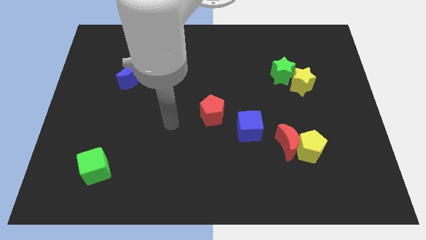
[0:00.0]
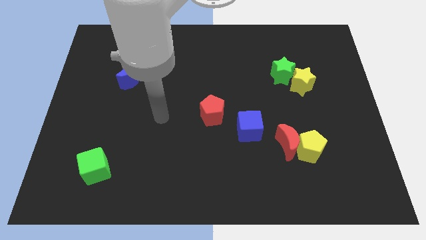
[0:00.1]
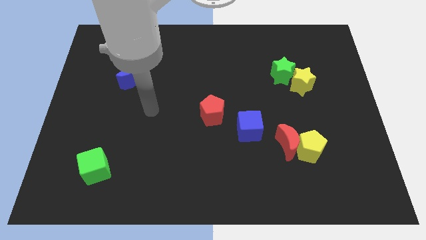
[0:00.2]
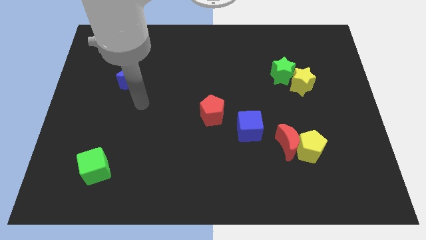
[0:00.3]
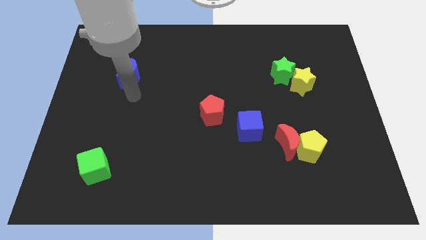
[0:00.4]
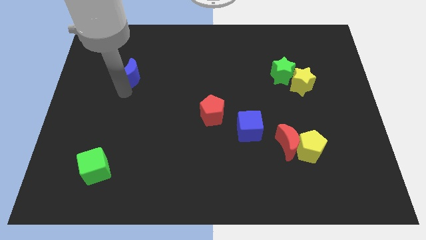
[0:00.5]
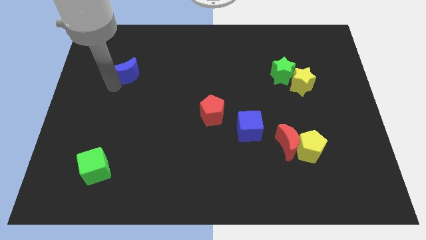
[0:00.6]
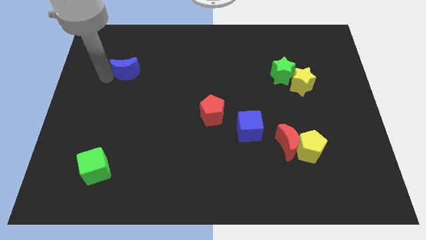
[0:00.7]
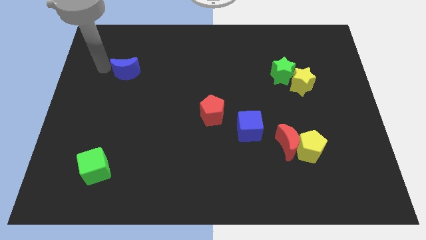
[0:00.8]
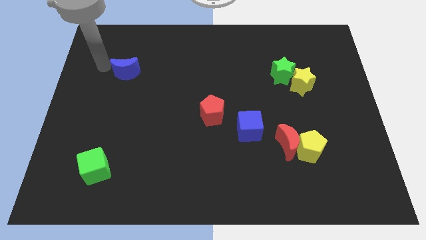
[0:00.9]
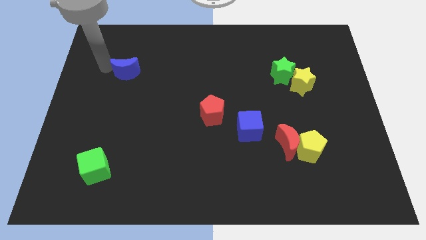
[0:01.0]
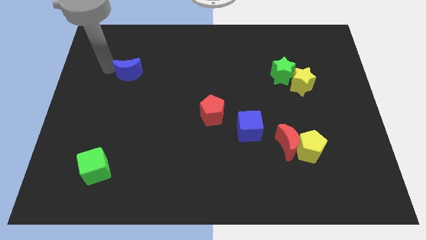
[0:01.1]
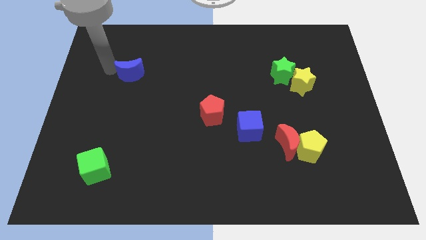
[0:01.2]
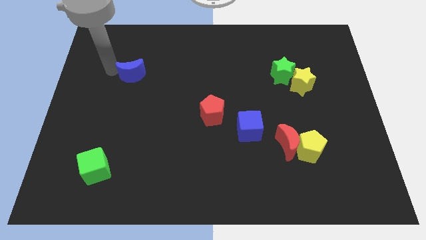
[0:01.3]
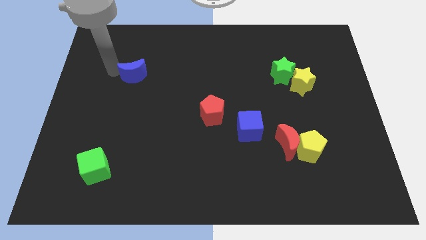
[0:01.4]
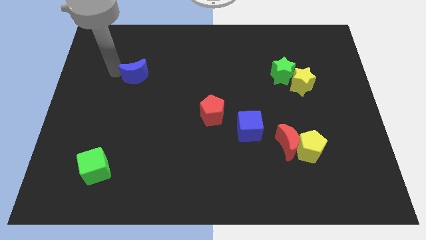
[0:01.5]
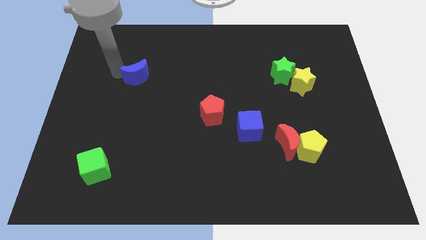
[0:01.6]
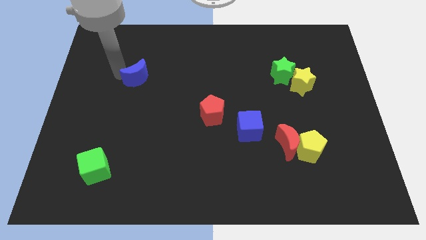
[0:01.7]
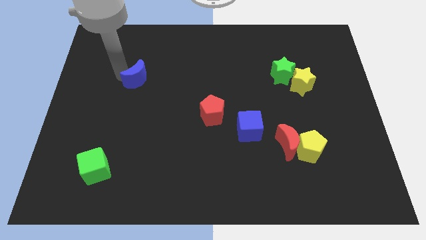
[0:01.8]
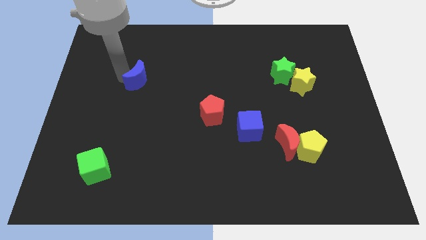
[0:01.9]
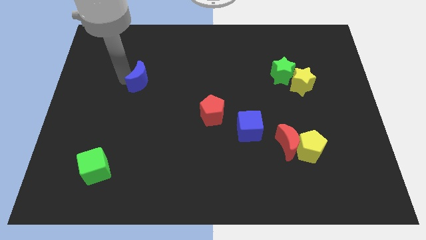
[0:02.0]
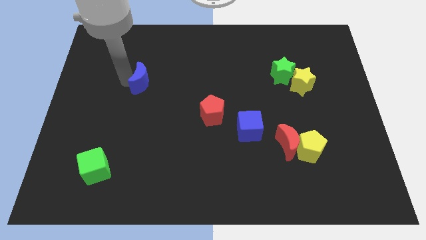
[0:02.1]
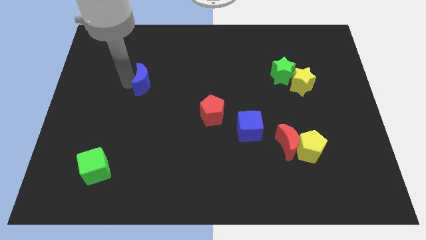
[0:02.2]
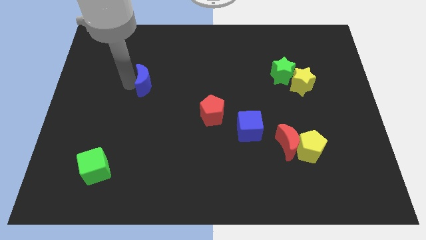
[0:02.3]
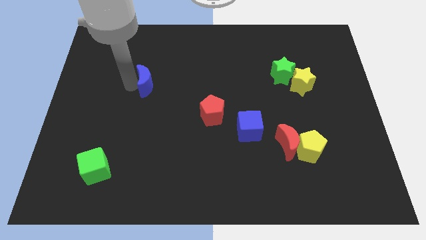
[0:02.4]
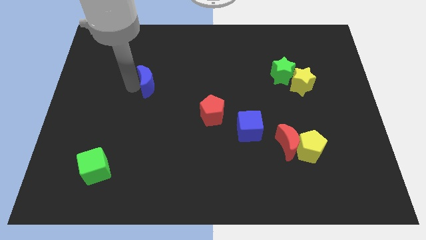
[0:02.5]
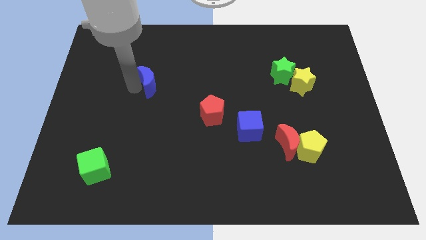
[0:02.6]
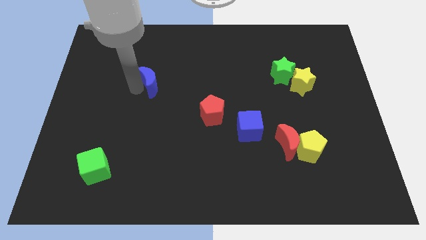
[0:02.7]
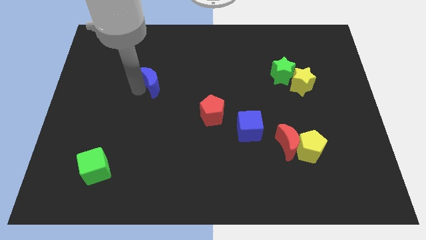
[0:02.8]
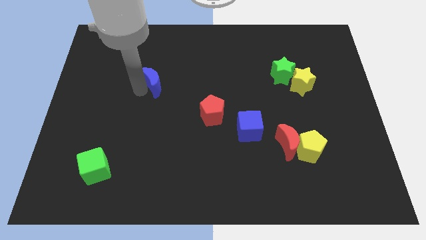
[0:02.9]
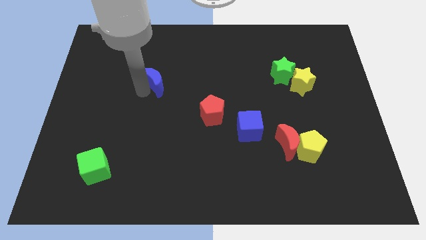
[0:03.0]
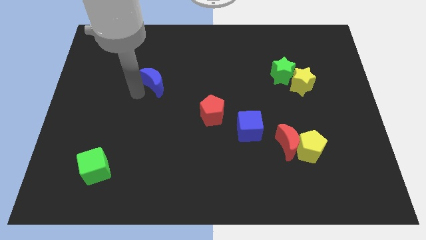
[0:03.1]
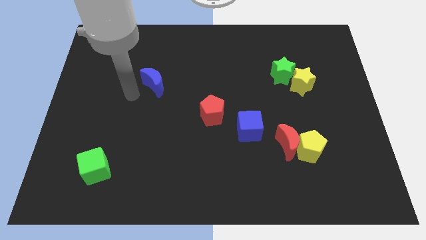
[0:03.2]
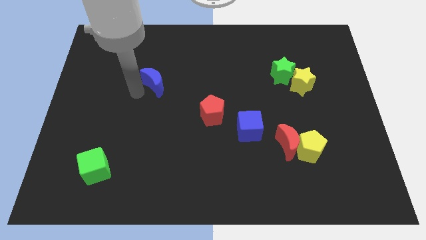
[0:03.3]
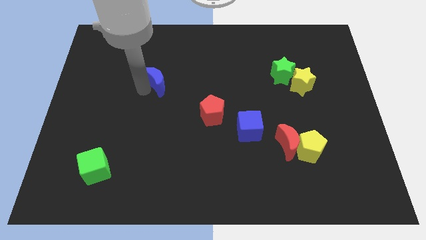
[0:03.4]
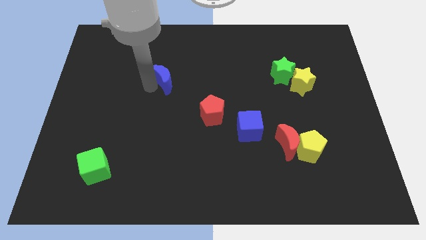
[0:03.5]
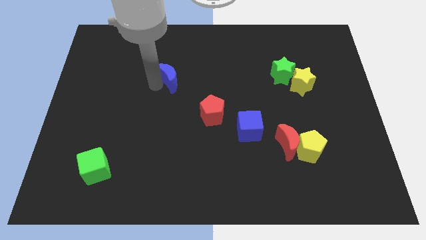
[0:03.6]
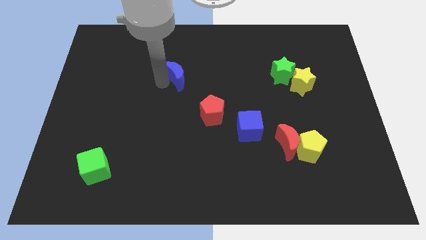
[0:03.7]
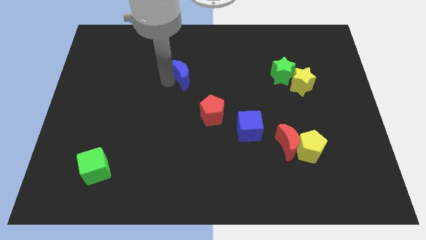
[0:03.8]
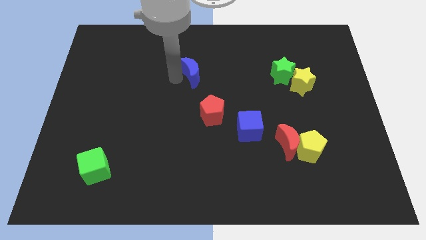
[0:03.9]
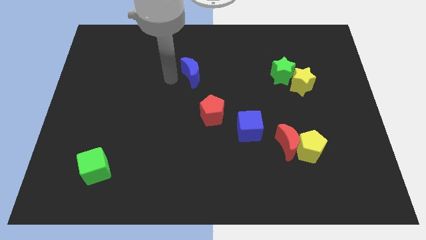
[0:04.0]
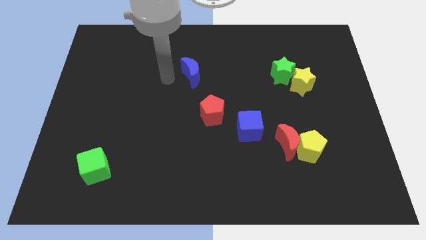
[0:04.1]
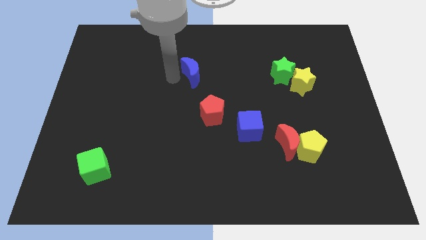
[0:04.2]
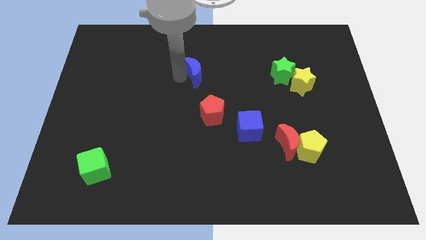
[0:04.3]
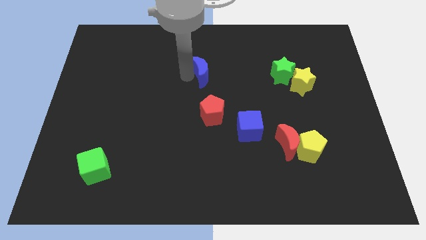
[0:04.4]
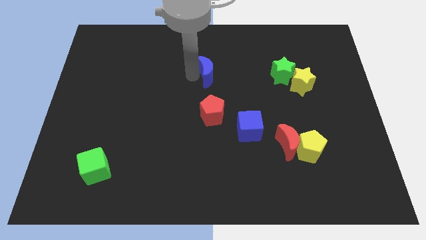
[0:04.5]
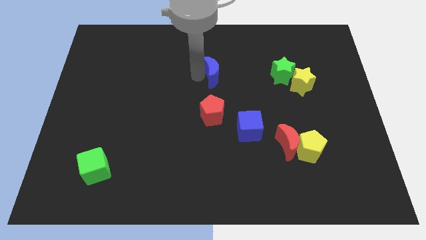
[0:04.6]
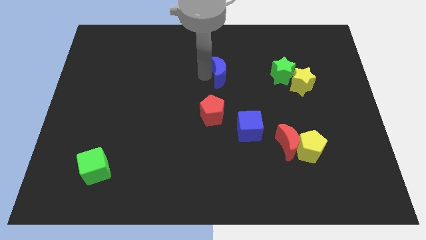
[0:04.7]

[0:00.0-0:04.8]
slide the blue moon to the left of the green star

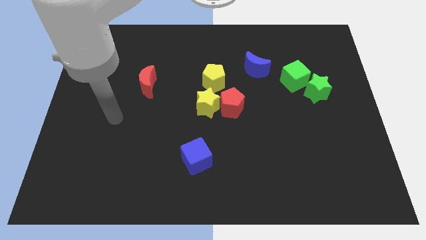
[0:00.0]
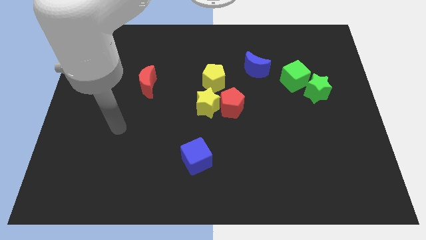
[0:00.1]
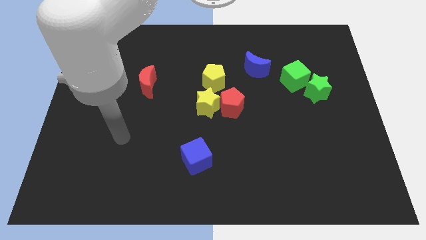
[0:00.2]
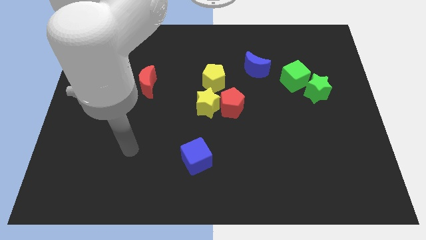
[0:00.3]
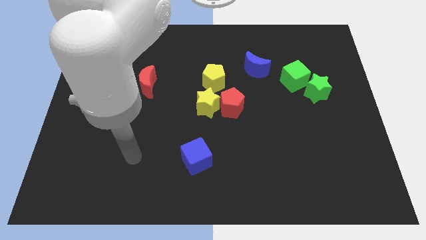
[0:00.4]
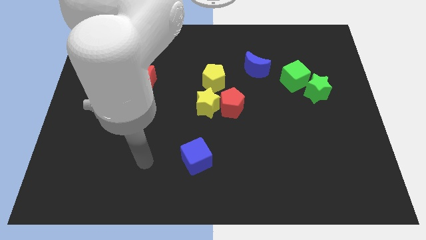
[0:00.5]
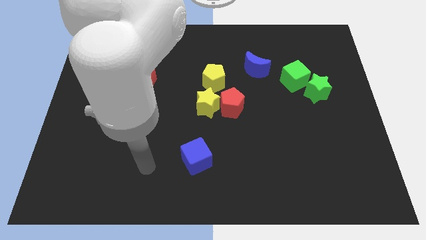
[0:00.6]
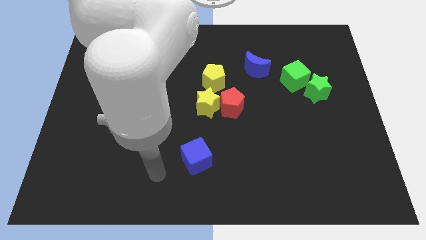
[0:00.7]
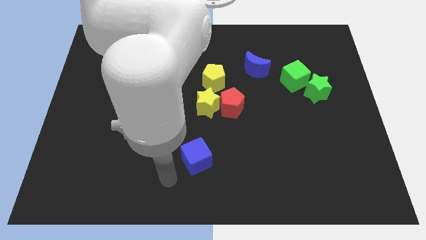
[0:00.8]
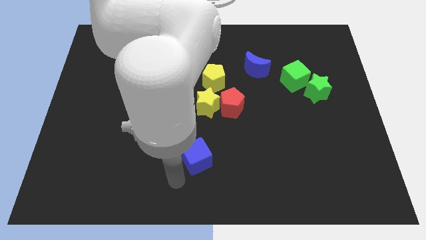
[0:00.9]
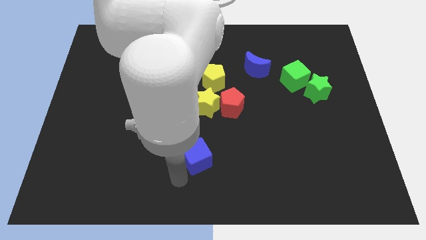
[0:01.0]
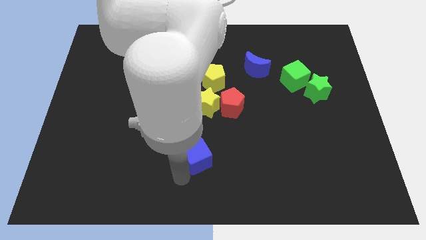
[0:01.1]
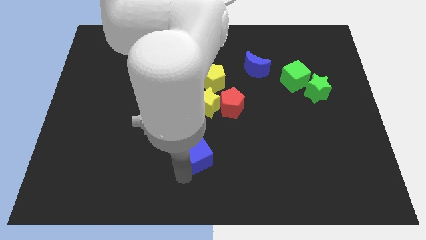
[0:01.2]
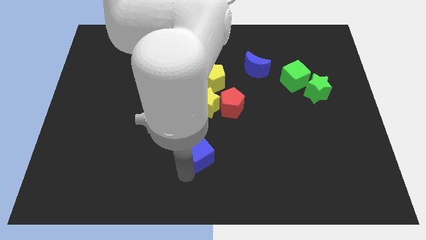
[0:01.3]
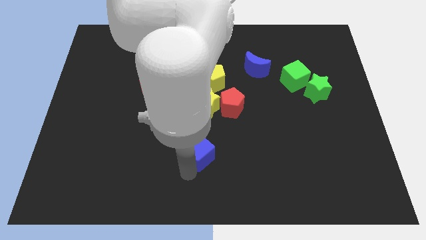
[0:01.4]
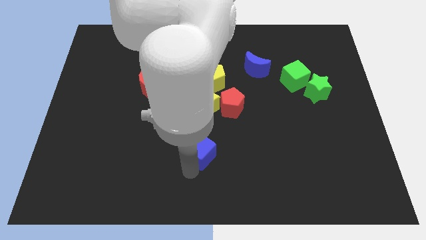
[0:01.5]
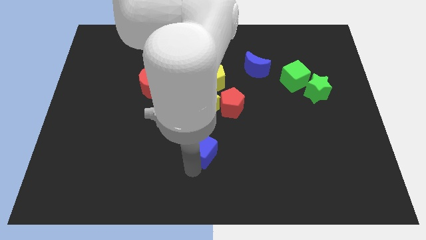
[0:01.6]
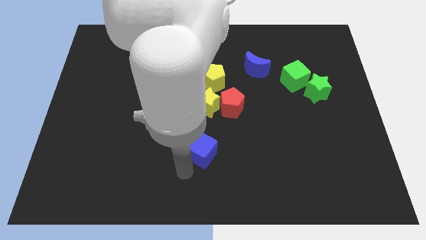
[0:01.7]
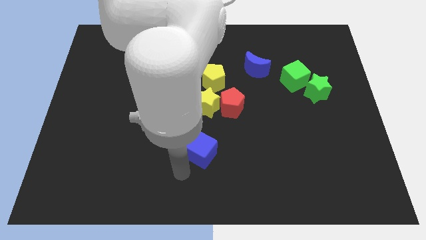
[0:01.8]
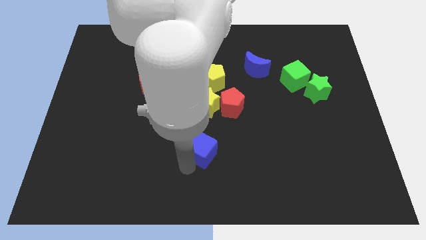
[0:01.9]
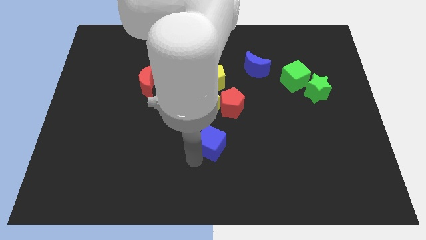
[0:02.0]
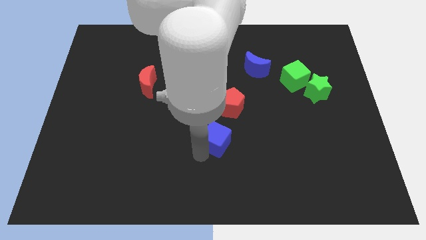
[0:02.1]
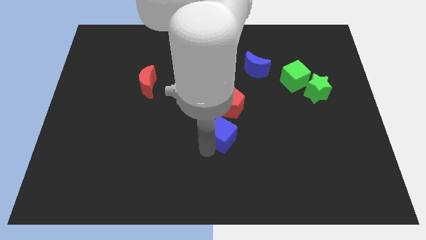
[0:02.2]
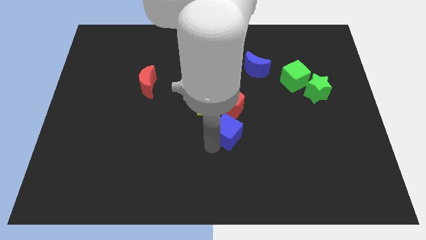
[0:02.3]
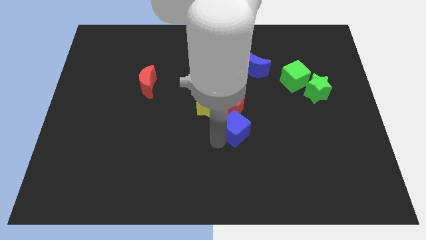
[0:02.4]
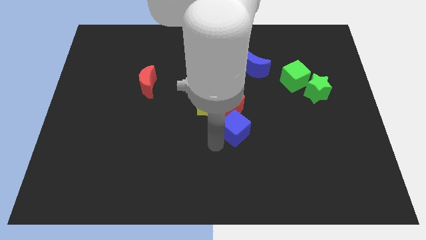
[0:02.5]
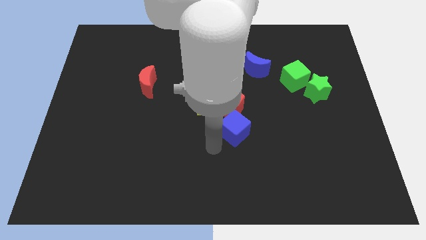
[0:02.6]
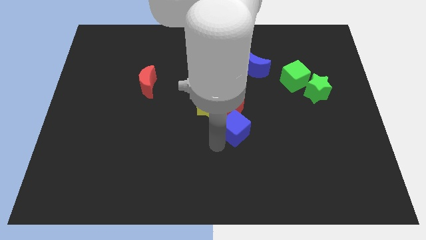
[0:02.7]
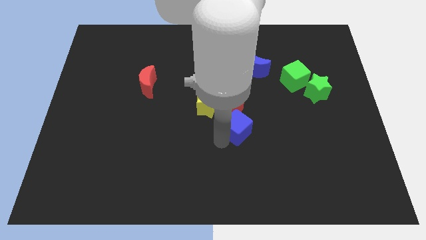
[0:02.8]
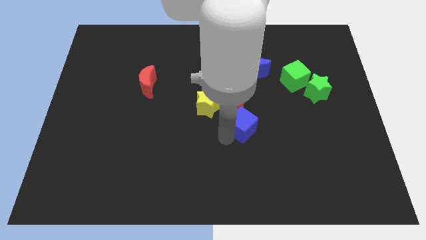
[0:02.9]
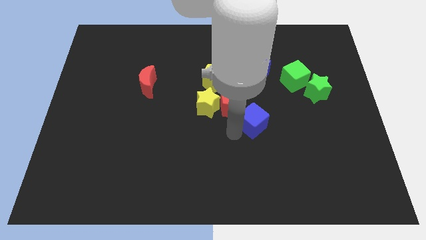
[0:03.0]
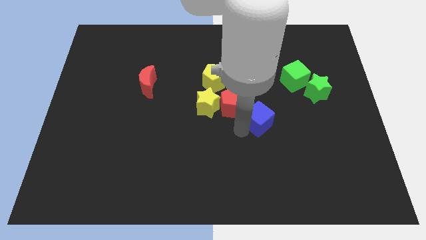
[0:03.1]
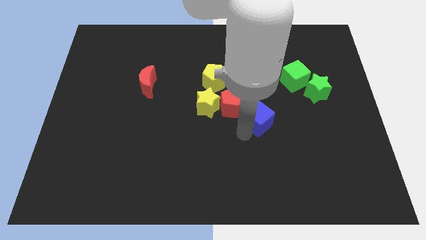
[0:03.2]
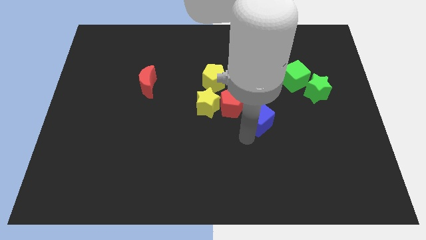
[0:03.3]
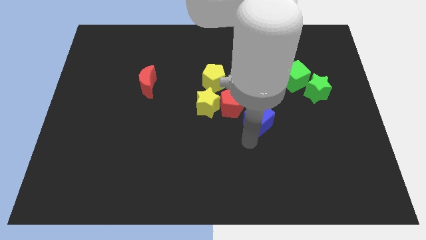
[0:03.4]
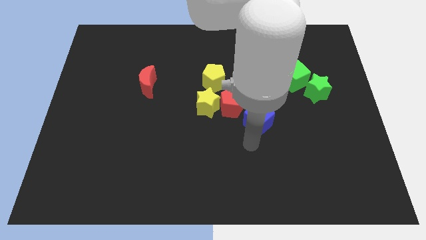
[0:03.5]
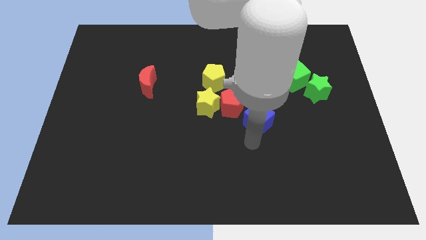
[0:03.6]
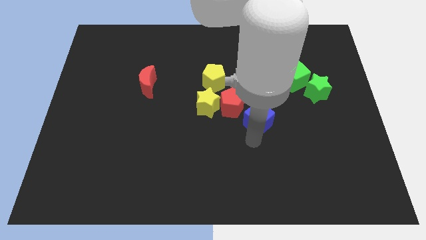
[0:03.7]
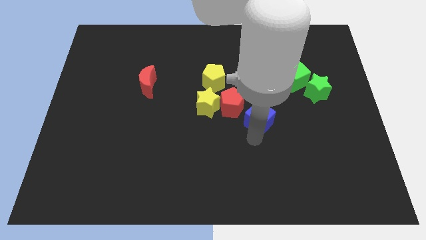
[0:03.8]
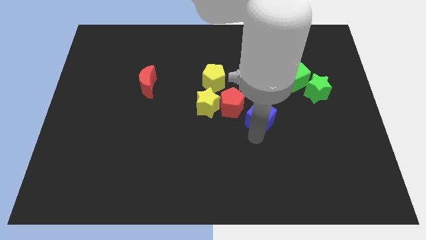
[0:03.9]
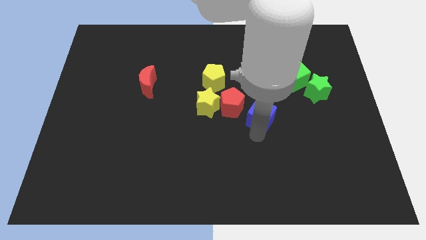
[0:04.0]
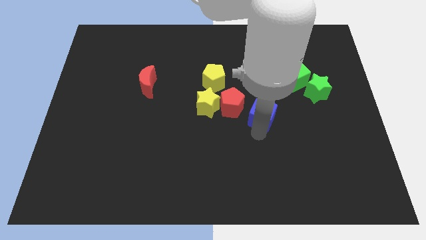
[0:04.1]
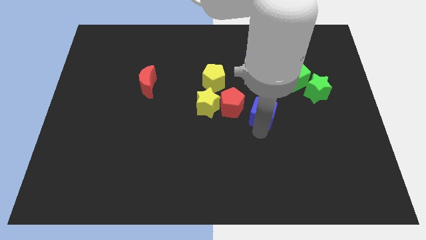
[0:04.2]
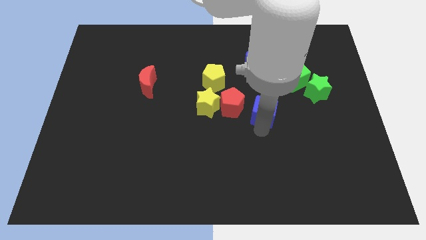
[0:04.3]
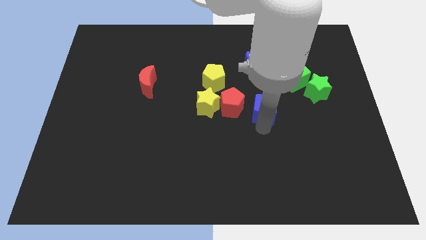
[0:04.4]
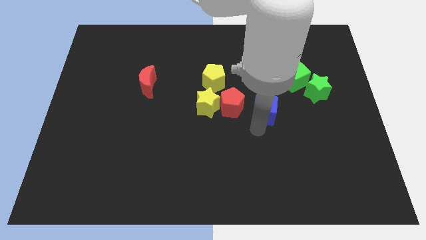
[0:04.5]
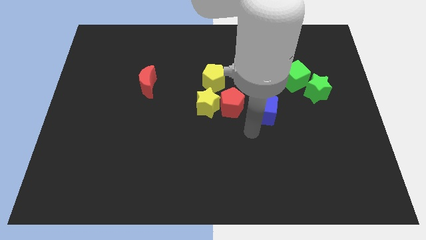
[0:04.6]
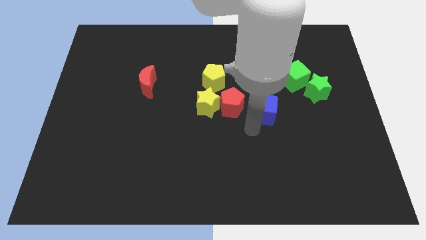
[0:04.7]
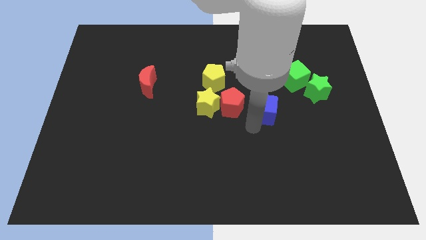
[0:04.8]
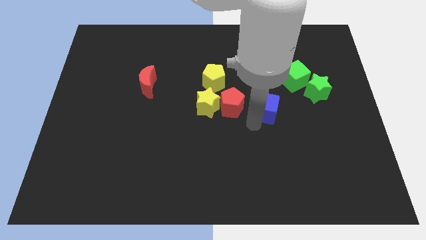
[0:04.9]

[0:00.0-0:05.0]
slide the blue cube diagonally down and to the left of the green cube
